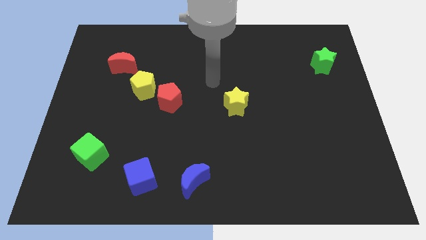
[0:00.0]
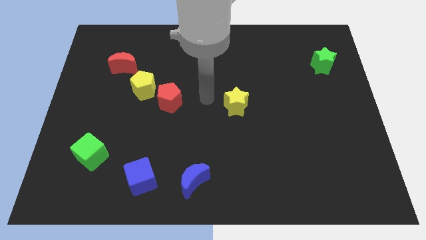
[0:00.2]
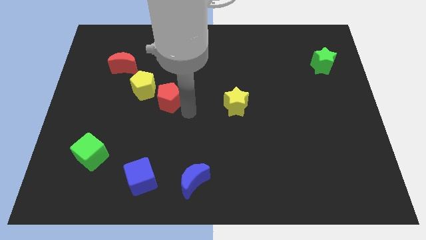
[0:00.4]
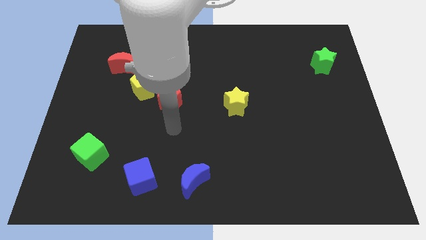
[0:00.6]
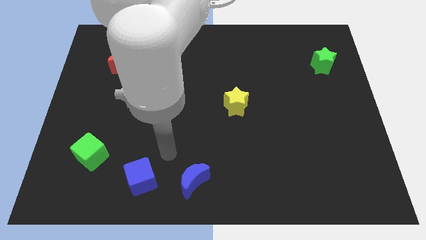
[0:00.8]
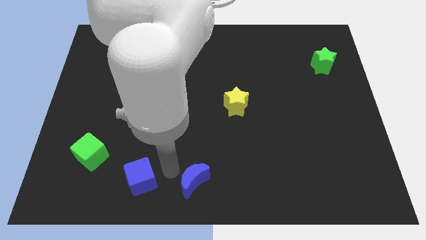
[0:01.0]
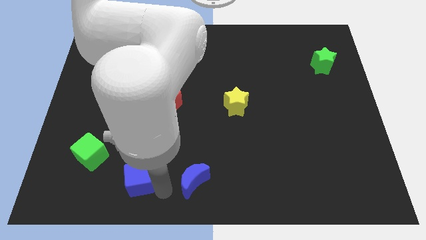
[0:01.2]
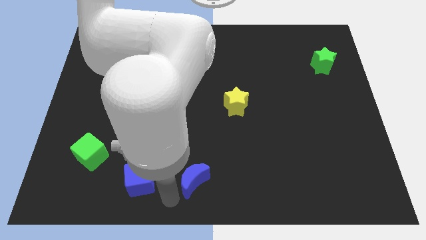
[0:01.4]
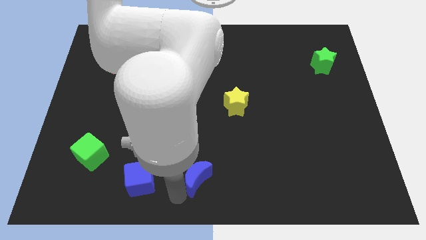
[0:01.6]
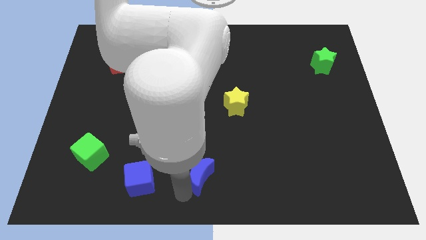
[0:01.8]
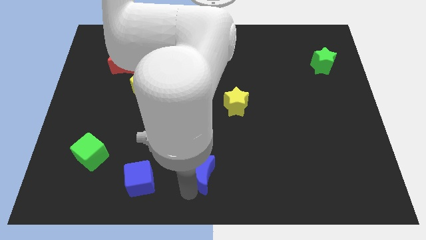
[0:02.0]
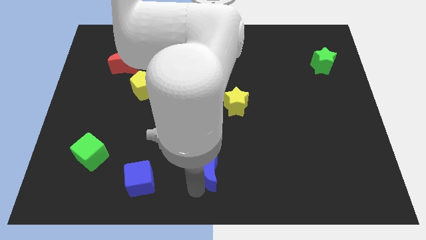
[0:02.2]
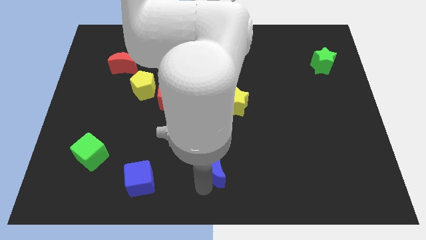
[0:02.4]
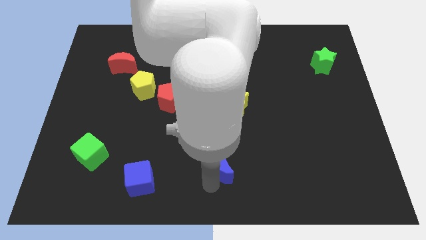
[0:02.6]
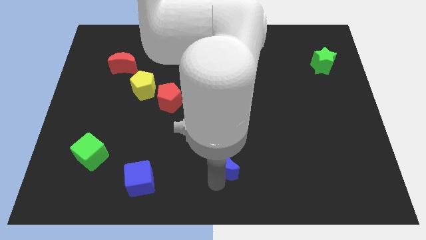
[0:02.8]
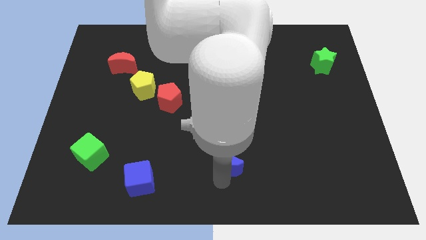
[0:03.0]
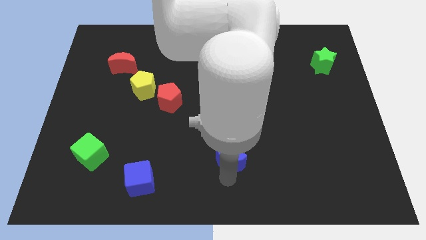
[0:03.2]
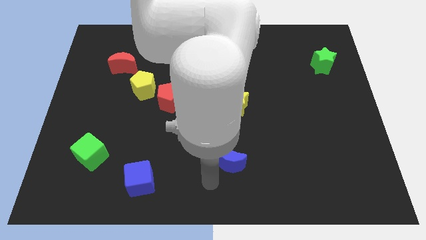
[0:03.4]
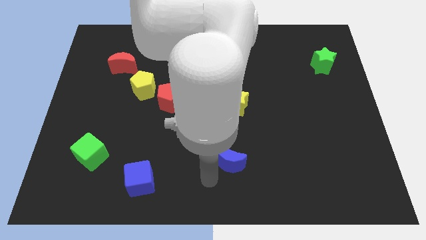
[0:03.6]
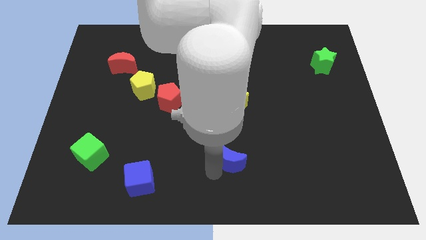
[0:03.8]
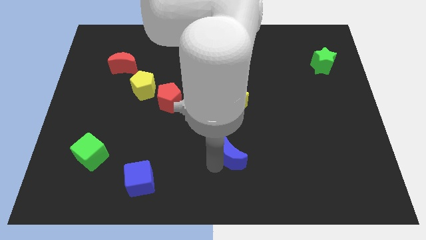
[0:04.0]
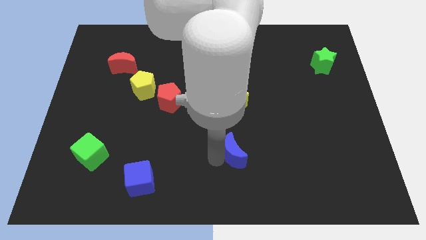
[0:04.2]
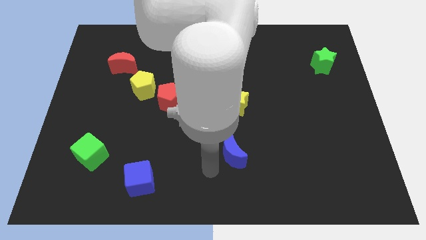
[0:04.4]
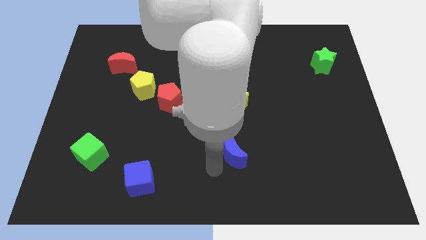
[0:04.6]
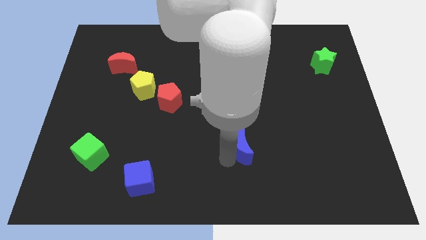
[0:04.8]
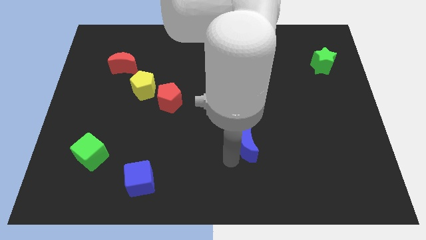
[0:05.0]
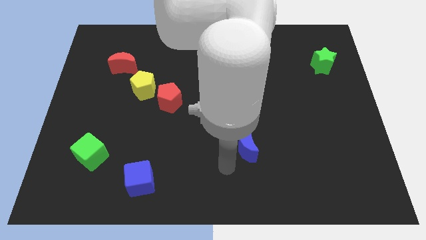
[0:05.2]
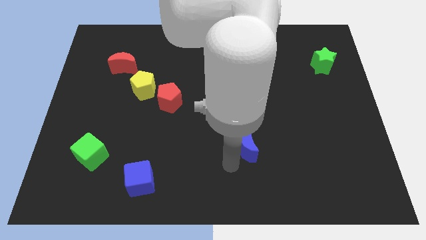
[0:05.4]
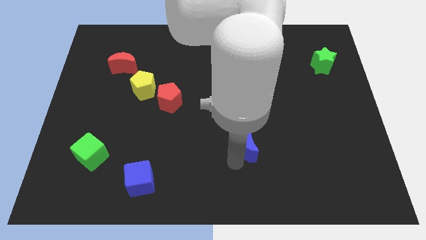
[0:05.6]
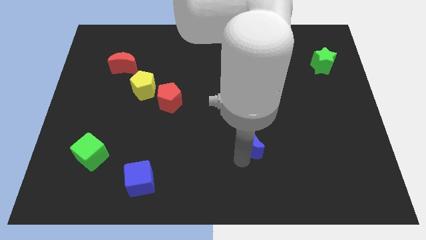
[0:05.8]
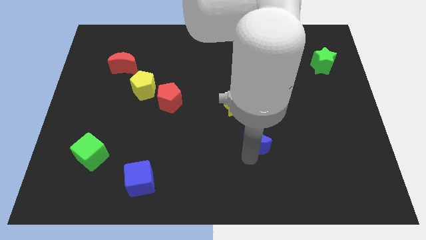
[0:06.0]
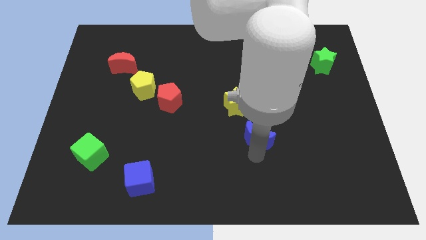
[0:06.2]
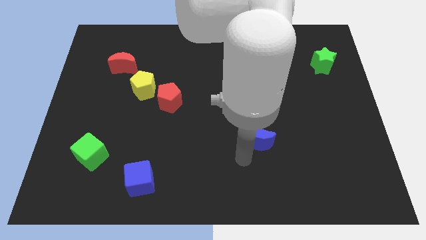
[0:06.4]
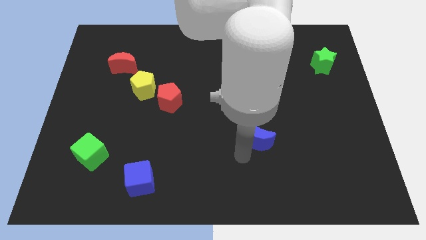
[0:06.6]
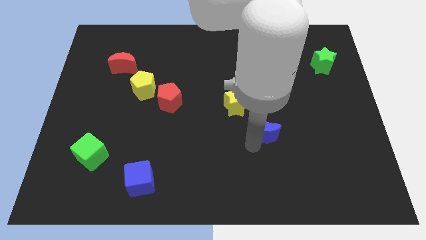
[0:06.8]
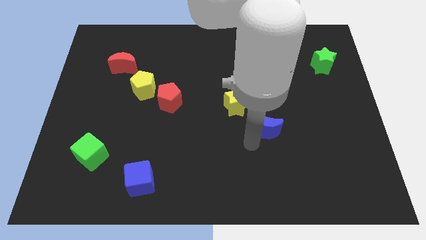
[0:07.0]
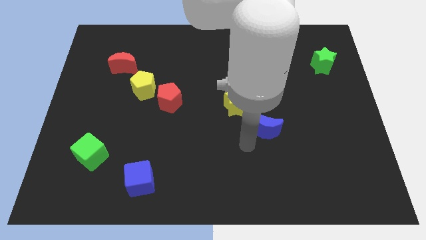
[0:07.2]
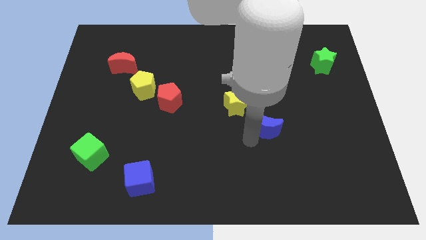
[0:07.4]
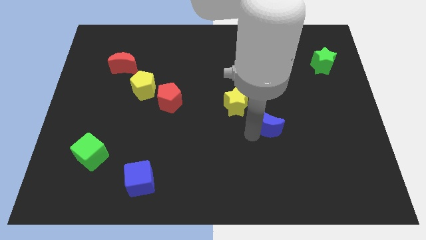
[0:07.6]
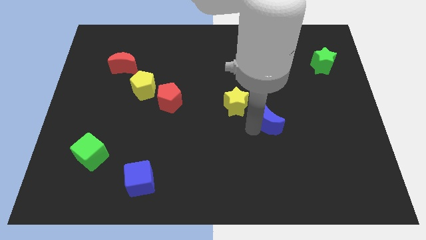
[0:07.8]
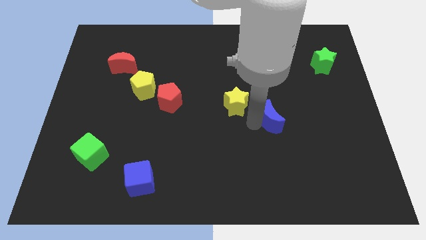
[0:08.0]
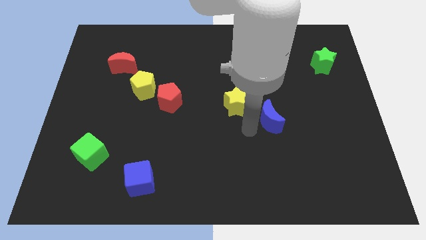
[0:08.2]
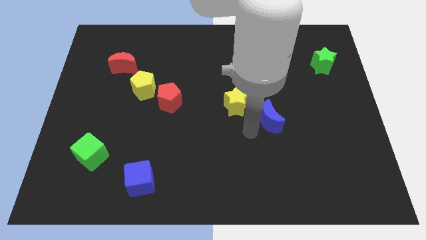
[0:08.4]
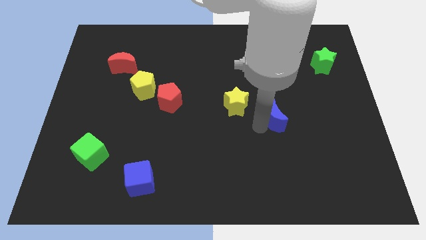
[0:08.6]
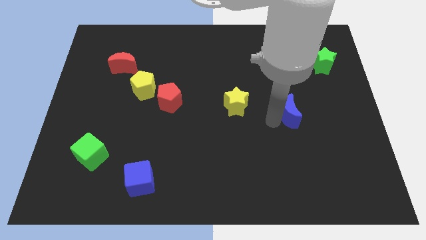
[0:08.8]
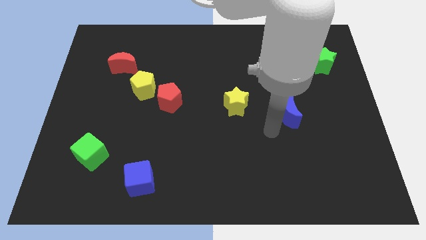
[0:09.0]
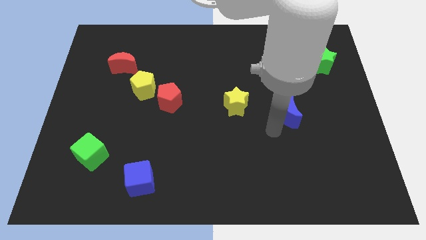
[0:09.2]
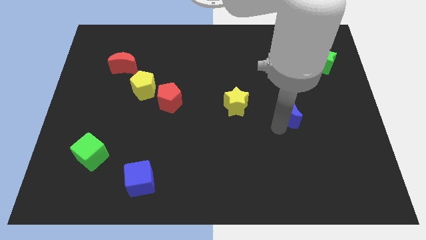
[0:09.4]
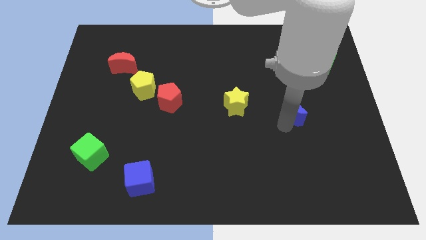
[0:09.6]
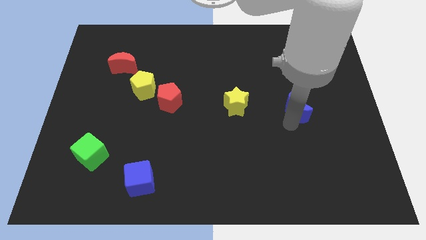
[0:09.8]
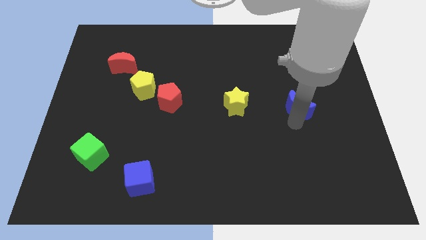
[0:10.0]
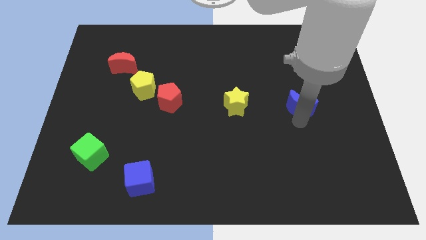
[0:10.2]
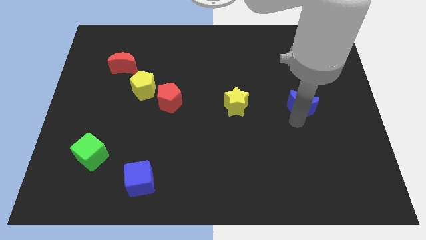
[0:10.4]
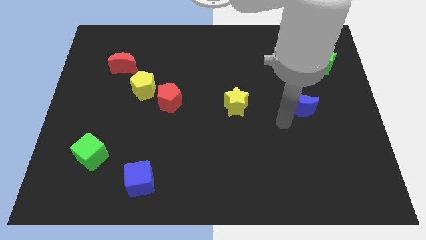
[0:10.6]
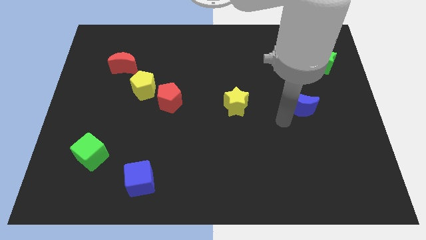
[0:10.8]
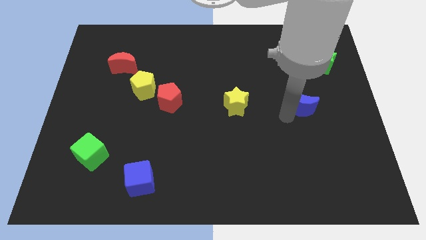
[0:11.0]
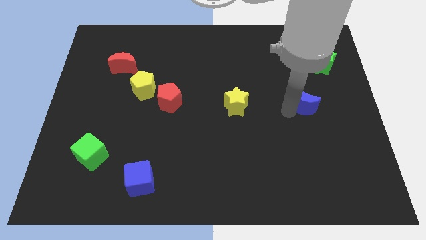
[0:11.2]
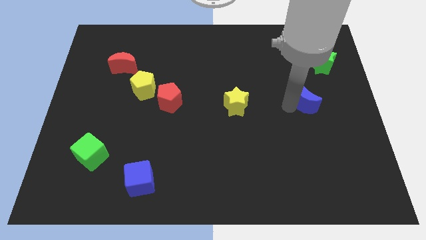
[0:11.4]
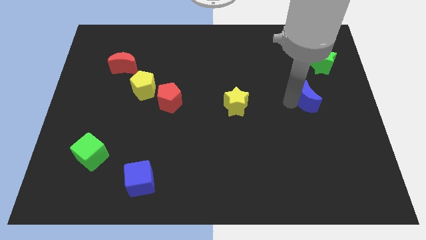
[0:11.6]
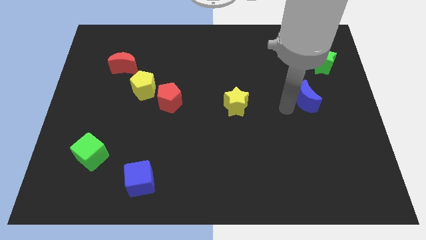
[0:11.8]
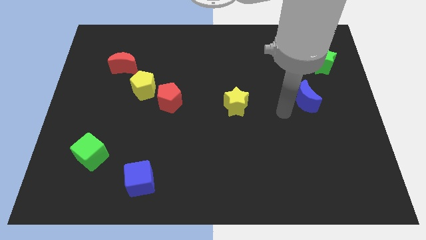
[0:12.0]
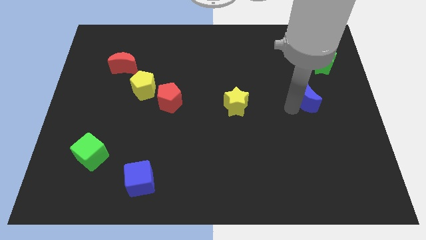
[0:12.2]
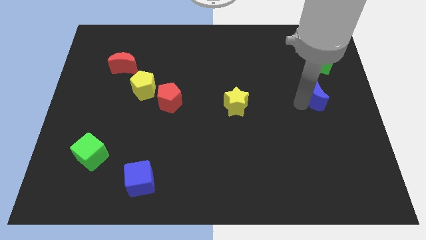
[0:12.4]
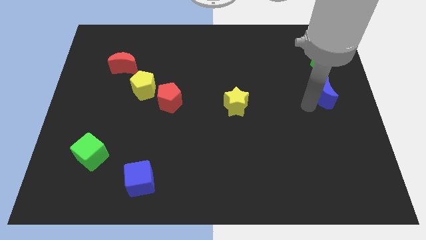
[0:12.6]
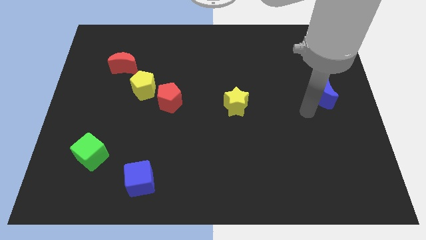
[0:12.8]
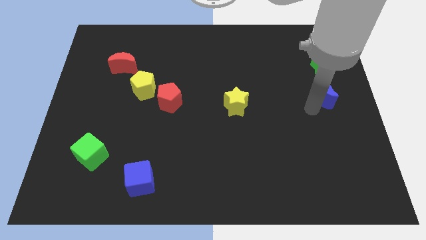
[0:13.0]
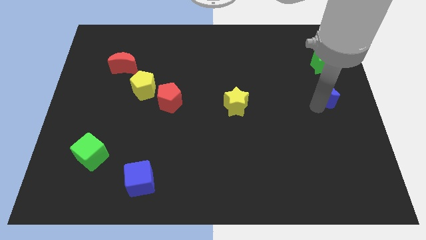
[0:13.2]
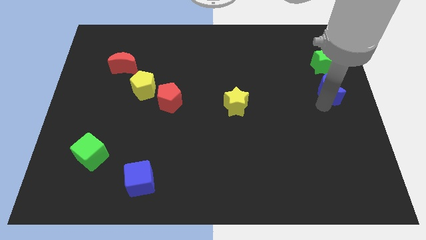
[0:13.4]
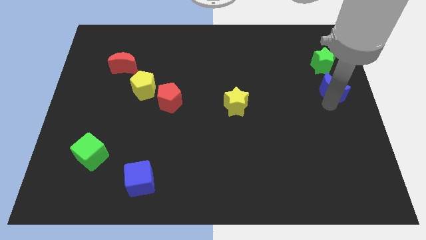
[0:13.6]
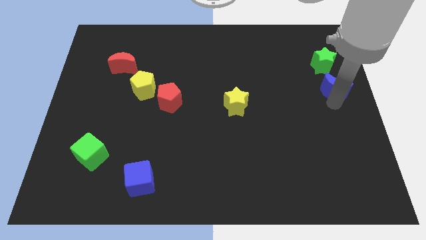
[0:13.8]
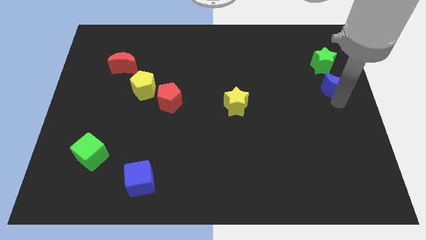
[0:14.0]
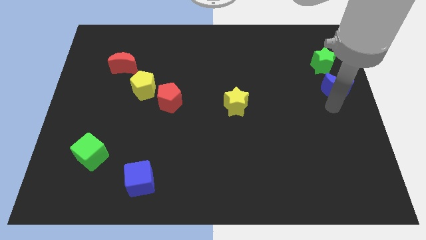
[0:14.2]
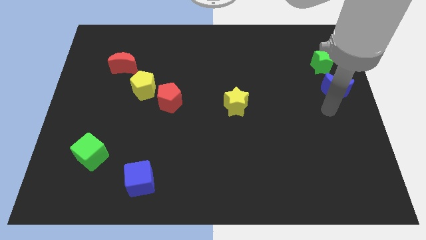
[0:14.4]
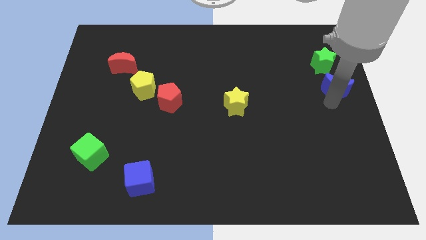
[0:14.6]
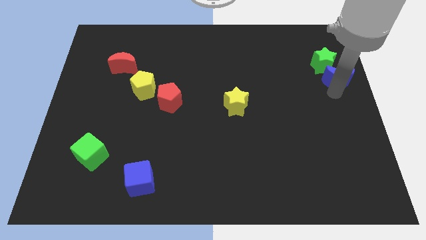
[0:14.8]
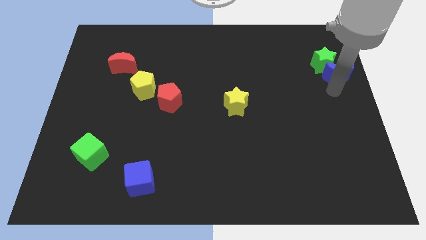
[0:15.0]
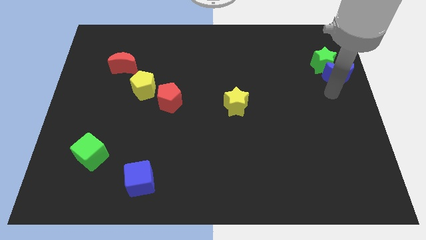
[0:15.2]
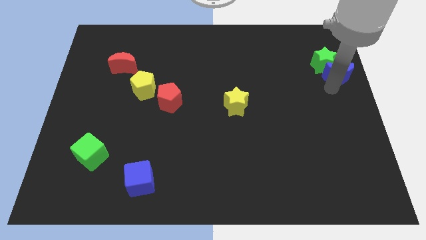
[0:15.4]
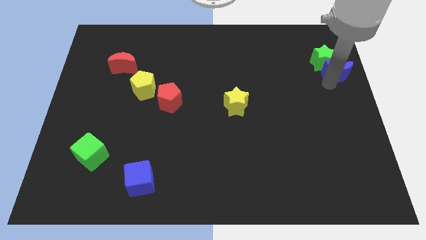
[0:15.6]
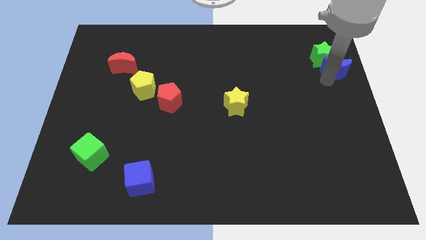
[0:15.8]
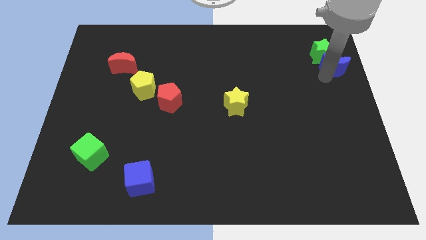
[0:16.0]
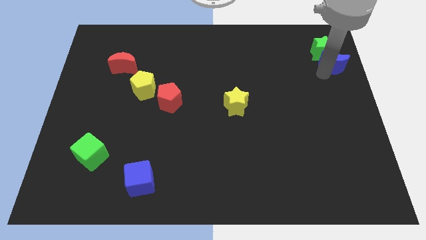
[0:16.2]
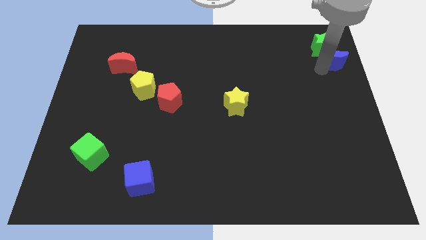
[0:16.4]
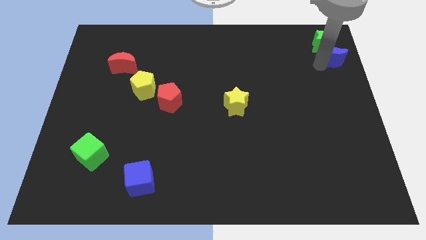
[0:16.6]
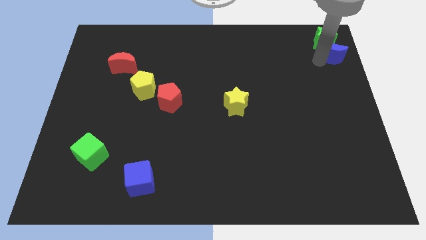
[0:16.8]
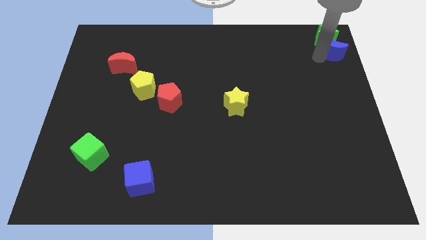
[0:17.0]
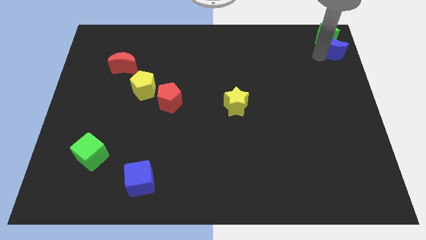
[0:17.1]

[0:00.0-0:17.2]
put the blue moon to the upper right corner
